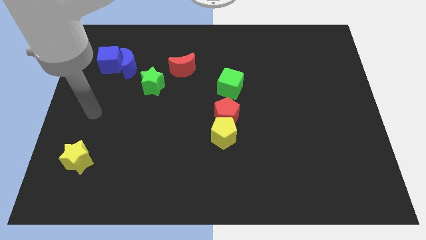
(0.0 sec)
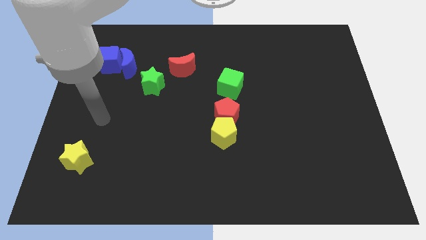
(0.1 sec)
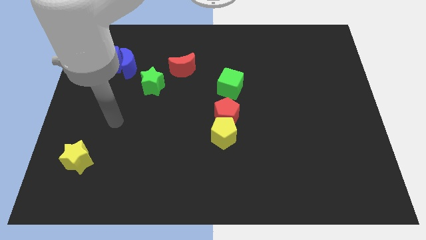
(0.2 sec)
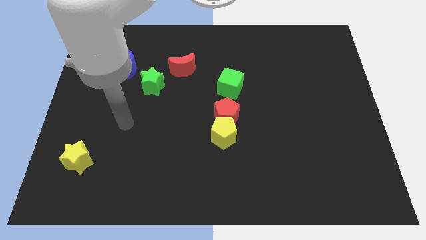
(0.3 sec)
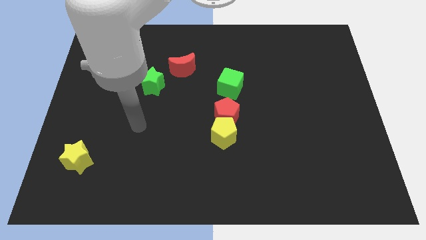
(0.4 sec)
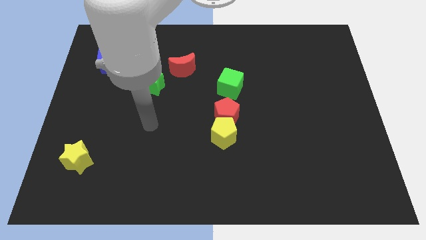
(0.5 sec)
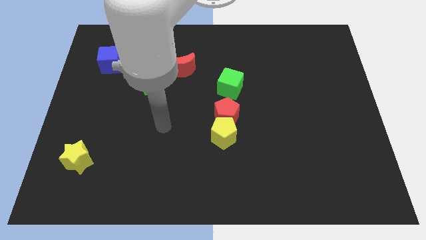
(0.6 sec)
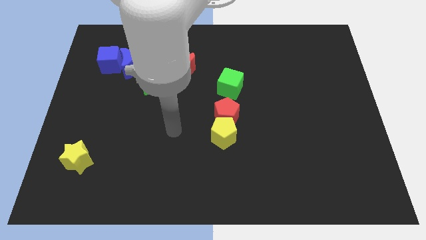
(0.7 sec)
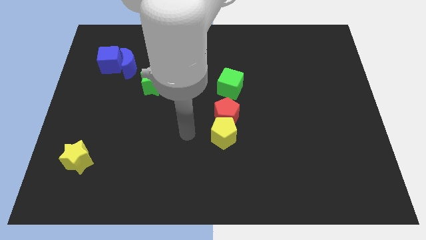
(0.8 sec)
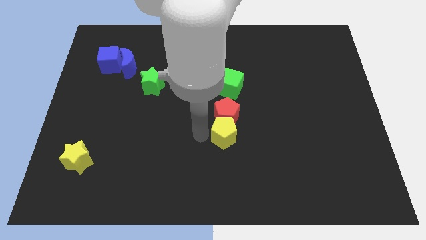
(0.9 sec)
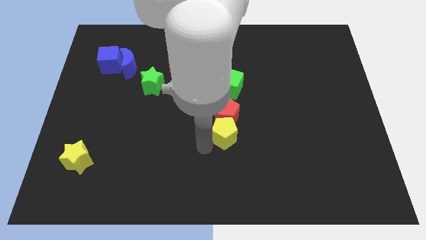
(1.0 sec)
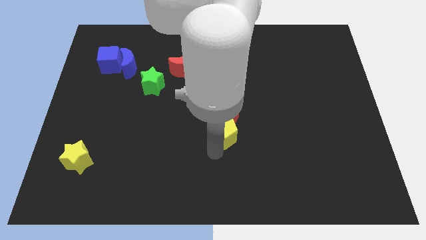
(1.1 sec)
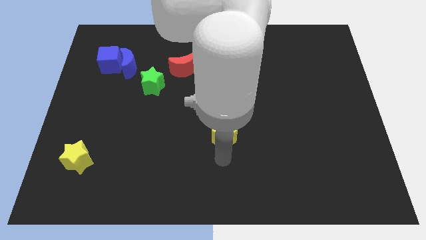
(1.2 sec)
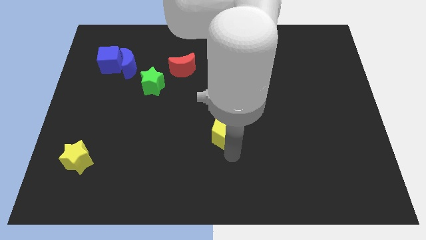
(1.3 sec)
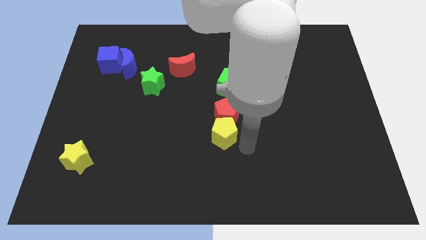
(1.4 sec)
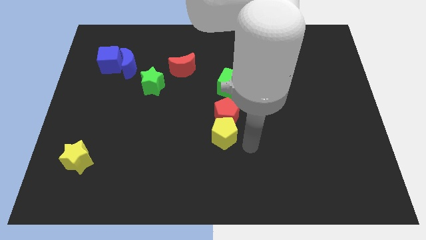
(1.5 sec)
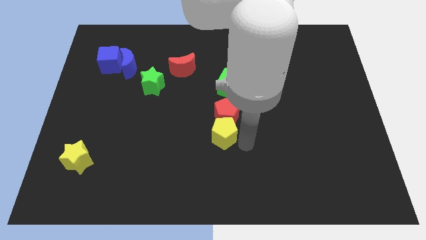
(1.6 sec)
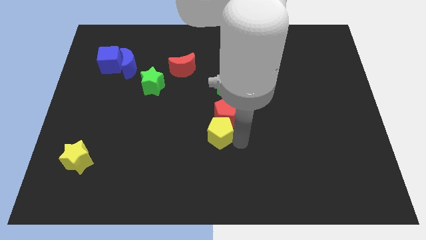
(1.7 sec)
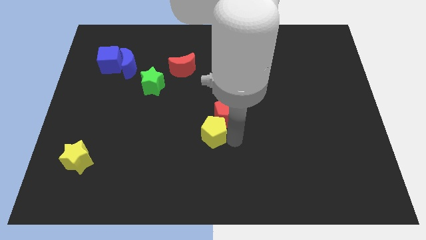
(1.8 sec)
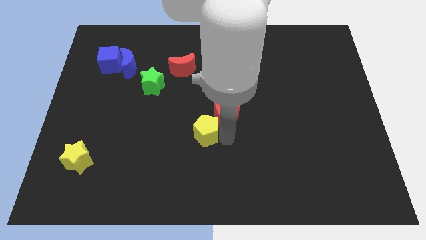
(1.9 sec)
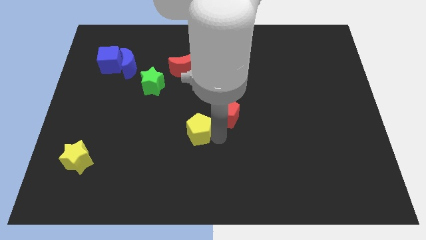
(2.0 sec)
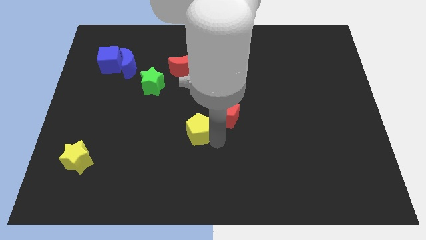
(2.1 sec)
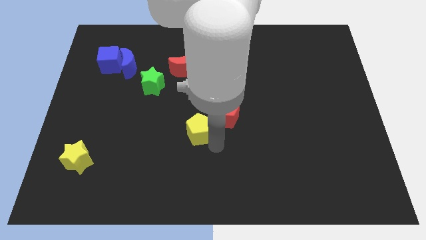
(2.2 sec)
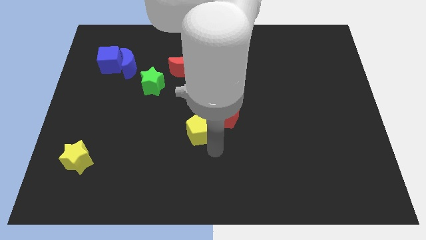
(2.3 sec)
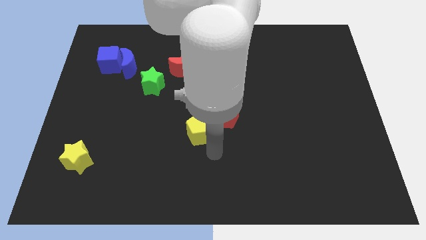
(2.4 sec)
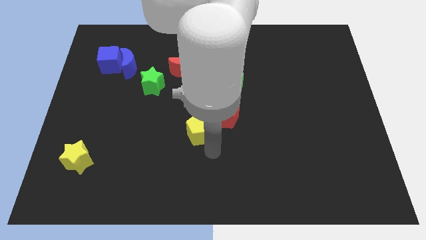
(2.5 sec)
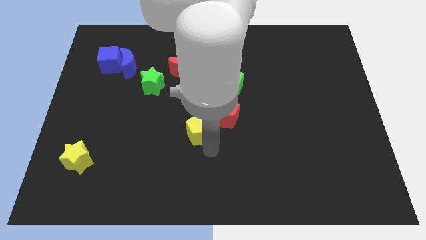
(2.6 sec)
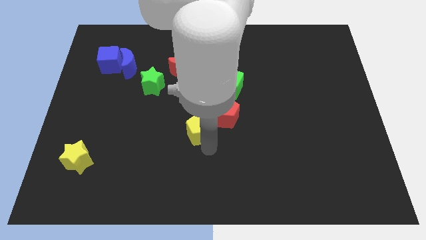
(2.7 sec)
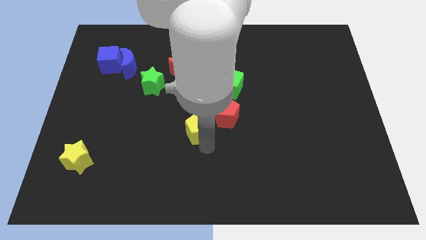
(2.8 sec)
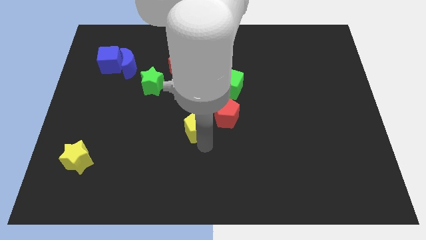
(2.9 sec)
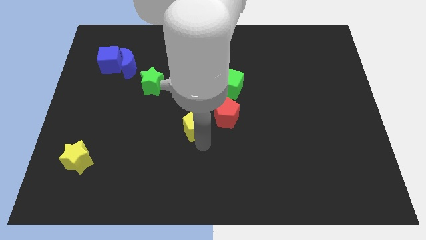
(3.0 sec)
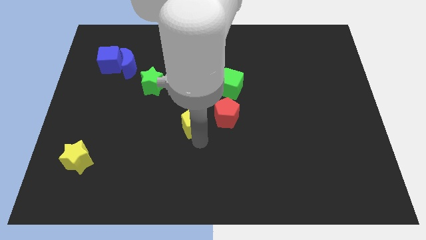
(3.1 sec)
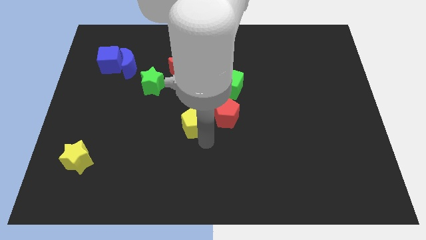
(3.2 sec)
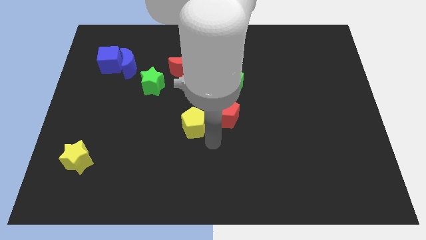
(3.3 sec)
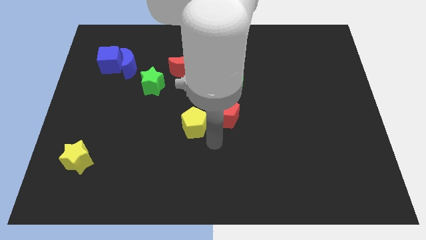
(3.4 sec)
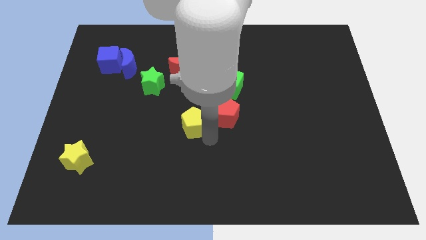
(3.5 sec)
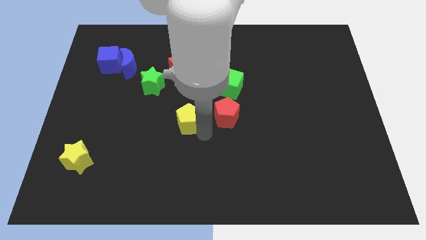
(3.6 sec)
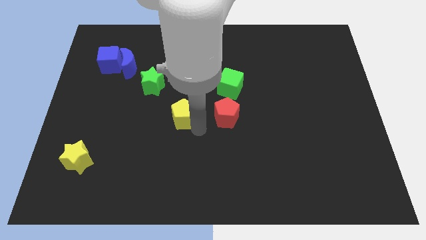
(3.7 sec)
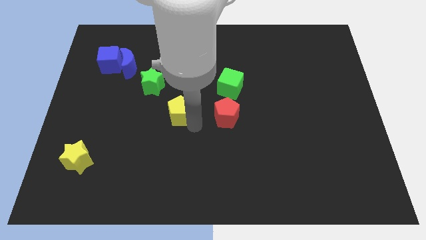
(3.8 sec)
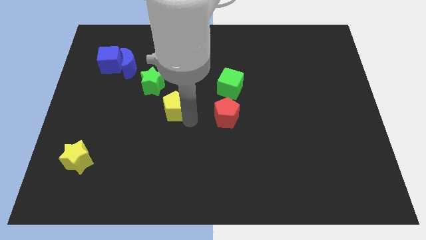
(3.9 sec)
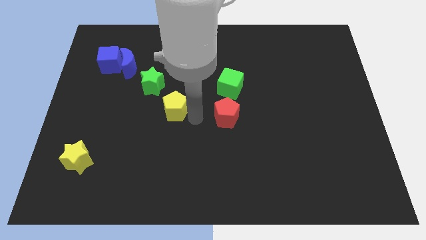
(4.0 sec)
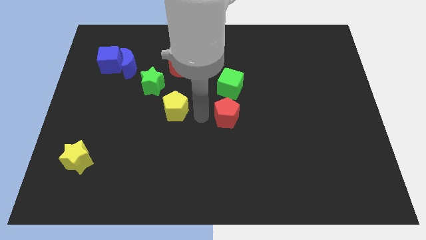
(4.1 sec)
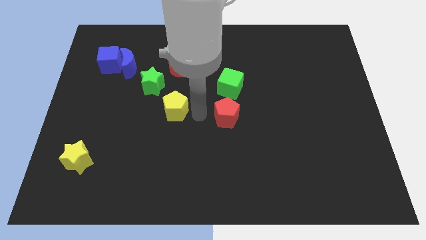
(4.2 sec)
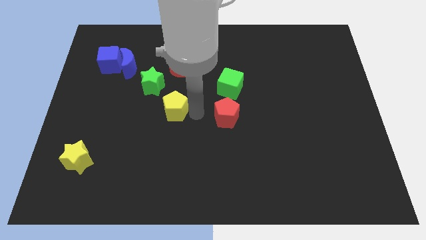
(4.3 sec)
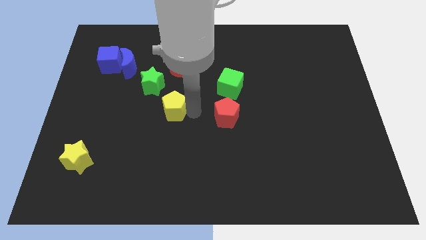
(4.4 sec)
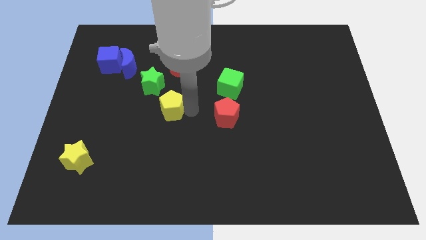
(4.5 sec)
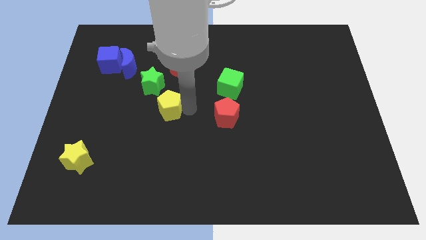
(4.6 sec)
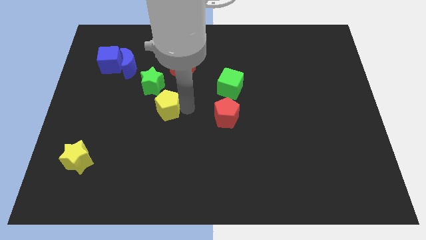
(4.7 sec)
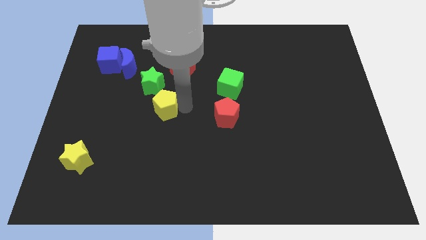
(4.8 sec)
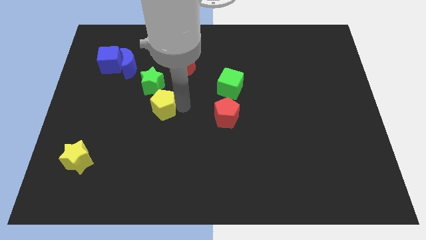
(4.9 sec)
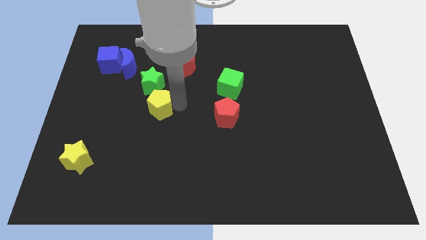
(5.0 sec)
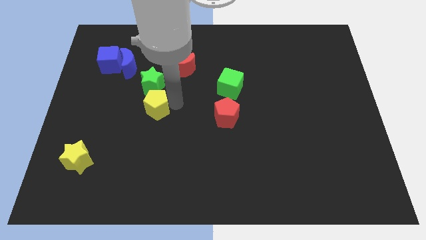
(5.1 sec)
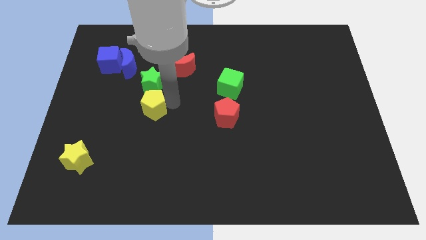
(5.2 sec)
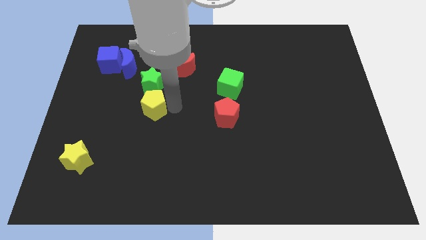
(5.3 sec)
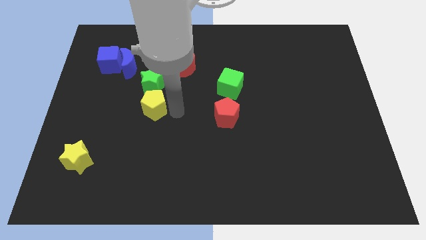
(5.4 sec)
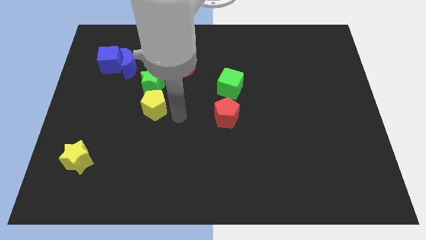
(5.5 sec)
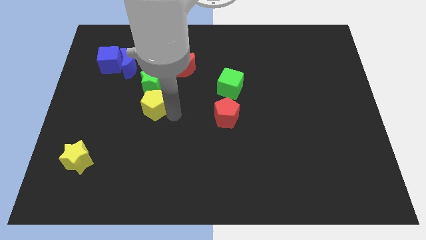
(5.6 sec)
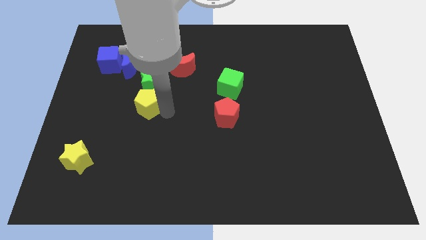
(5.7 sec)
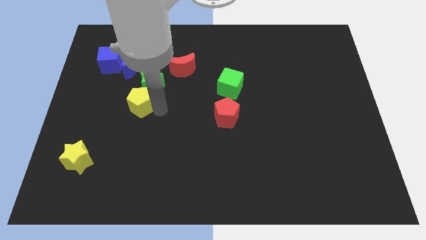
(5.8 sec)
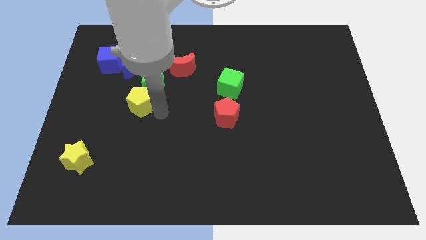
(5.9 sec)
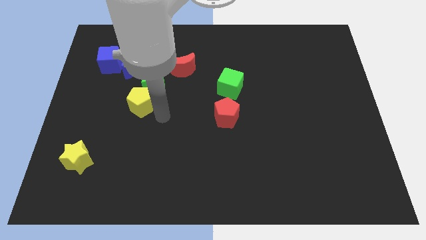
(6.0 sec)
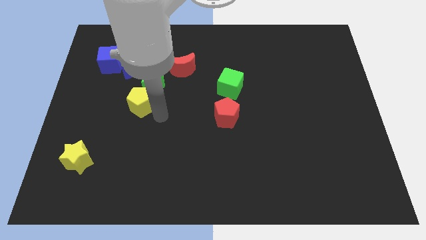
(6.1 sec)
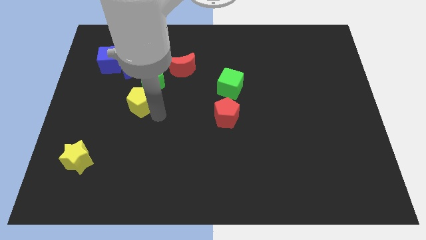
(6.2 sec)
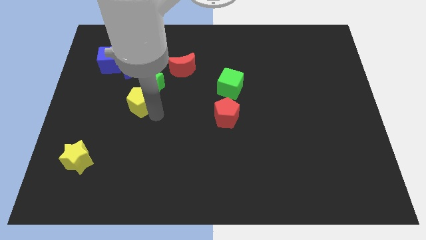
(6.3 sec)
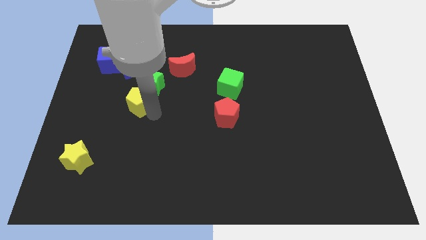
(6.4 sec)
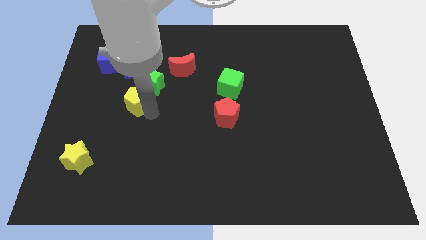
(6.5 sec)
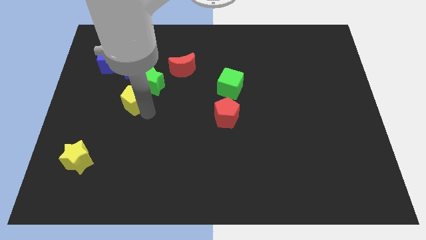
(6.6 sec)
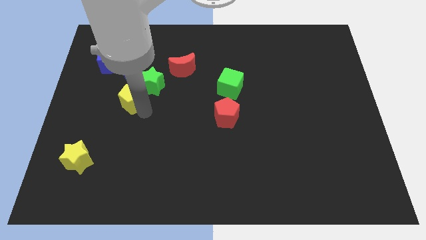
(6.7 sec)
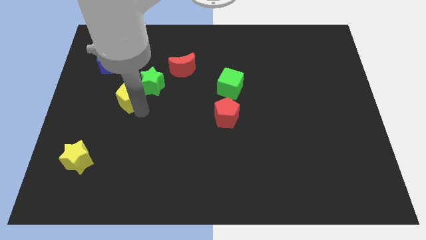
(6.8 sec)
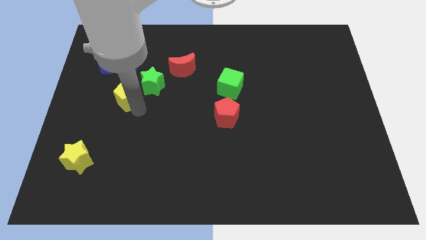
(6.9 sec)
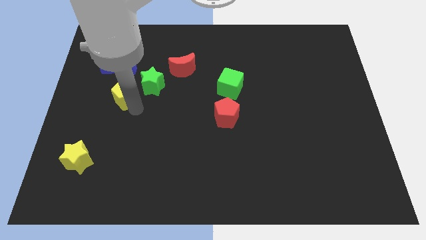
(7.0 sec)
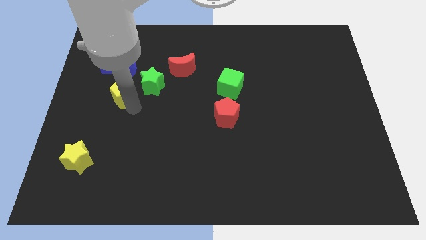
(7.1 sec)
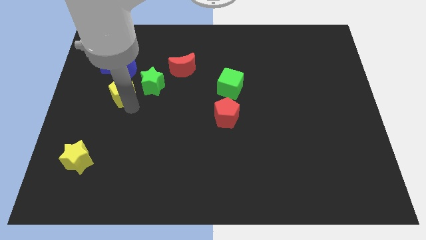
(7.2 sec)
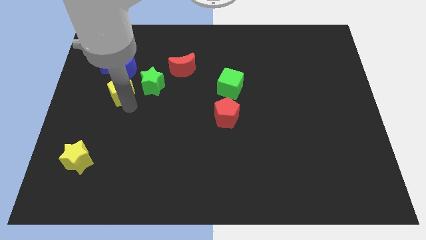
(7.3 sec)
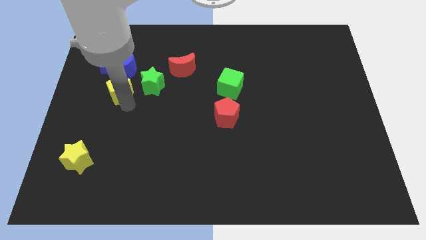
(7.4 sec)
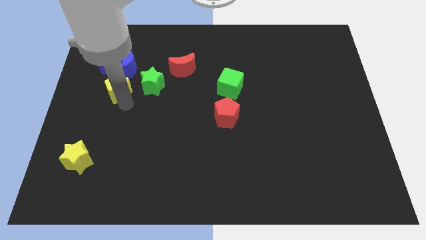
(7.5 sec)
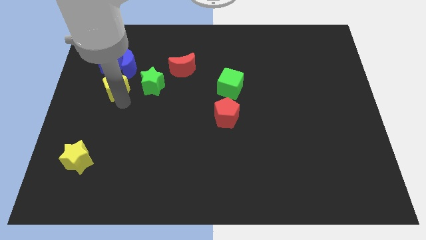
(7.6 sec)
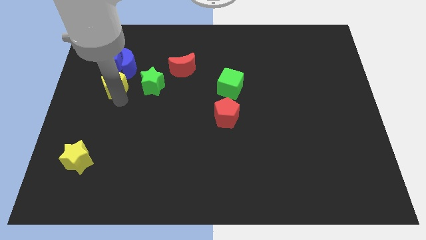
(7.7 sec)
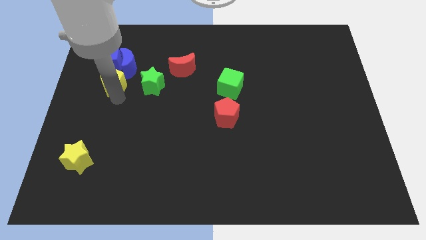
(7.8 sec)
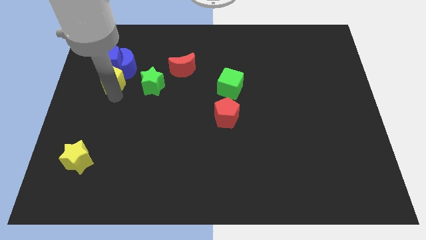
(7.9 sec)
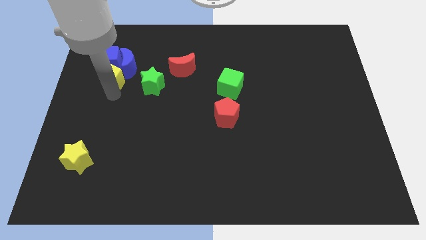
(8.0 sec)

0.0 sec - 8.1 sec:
put the yellow pentagon close to the blue cube
